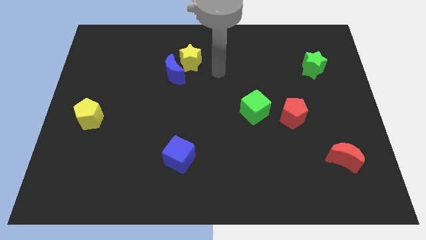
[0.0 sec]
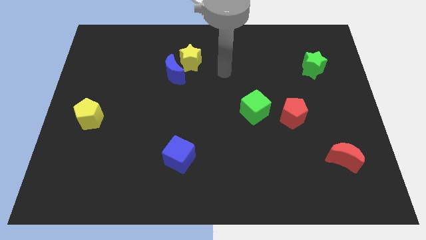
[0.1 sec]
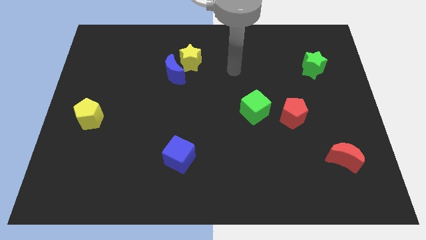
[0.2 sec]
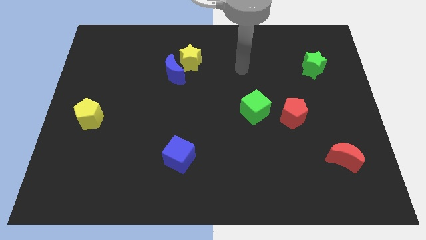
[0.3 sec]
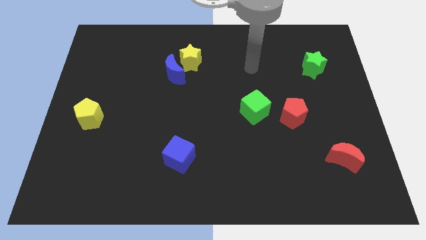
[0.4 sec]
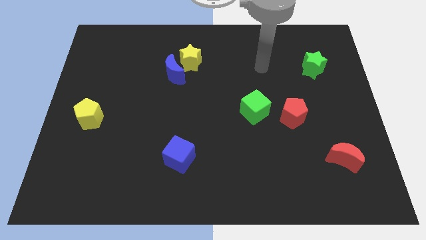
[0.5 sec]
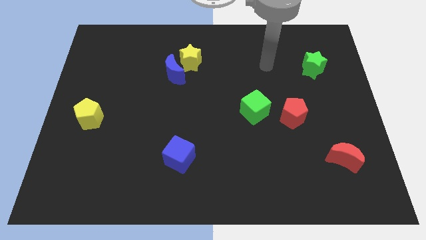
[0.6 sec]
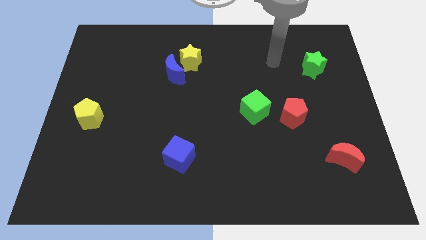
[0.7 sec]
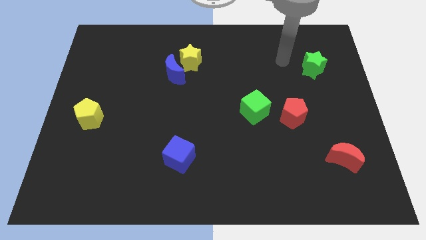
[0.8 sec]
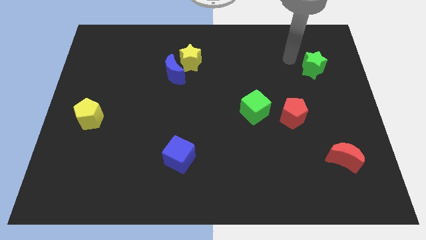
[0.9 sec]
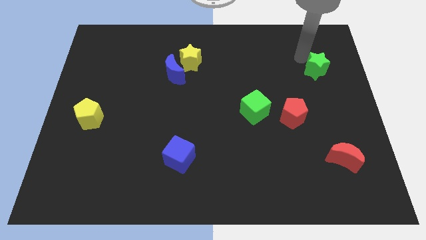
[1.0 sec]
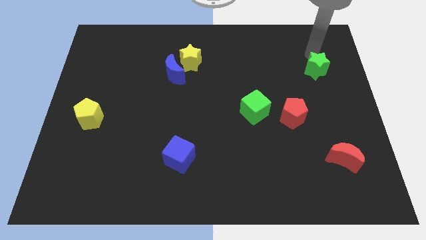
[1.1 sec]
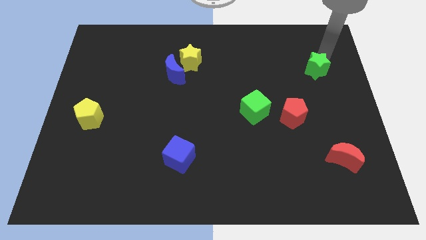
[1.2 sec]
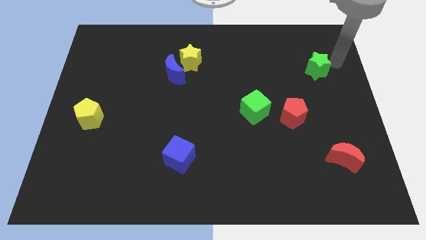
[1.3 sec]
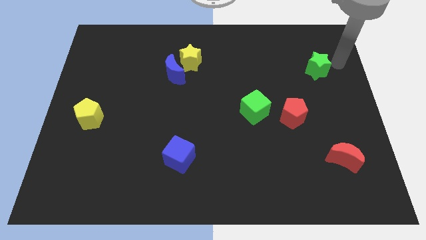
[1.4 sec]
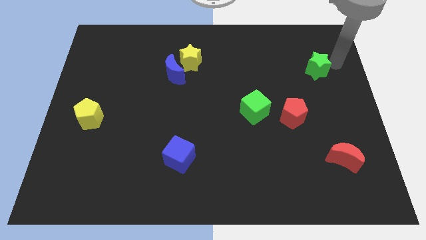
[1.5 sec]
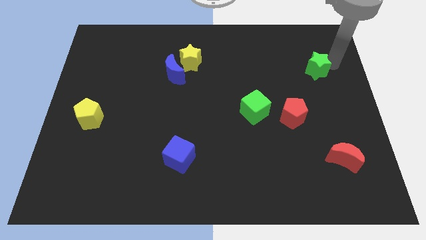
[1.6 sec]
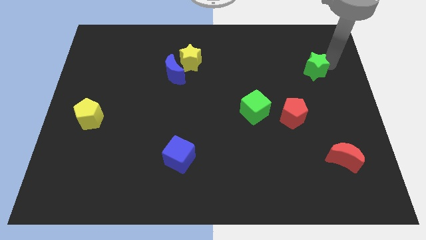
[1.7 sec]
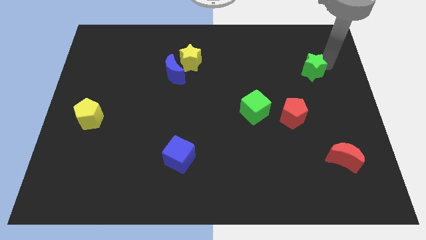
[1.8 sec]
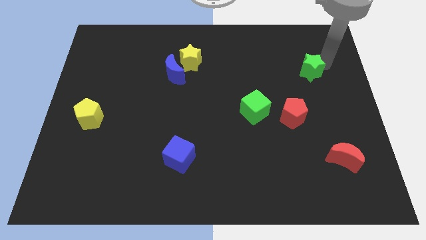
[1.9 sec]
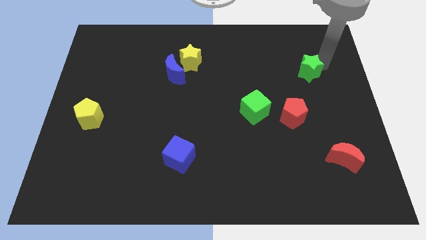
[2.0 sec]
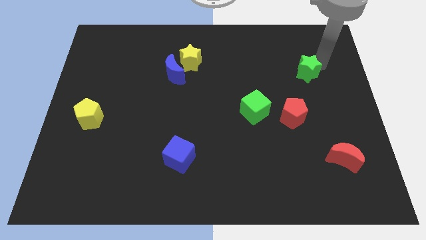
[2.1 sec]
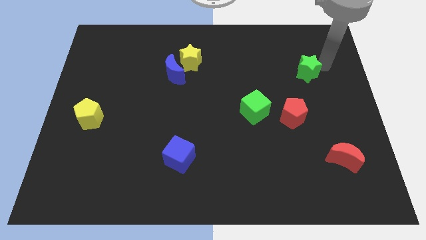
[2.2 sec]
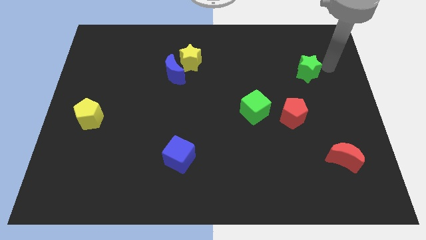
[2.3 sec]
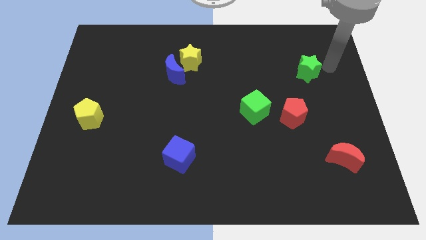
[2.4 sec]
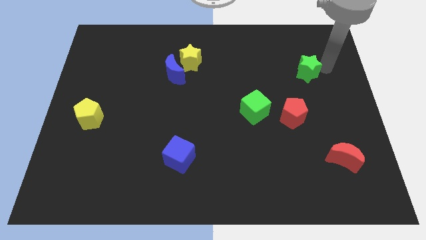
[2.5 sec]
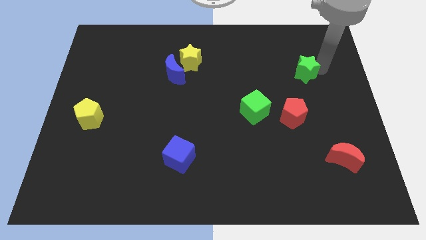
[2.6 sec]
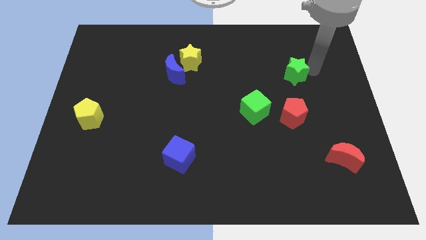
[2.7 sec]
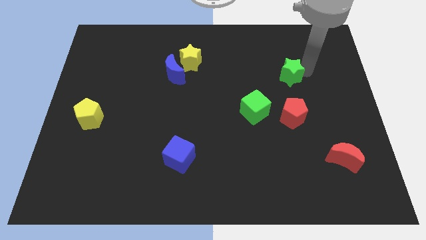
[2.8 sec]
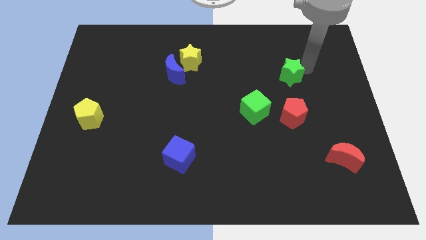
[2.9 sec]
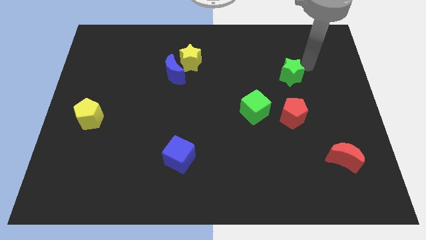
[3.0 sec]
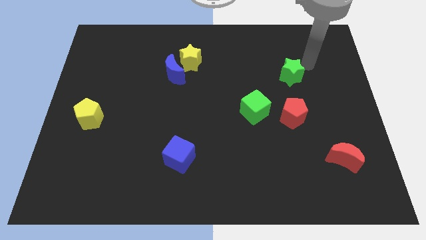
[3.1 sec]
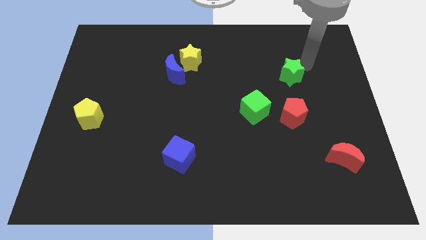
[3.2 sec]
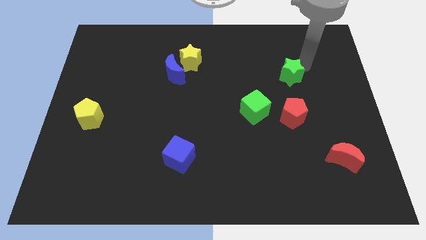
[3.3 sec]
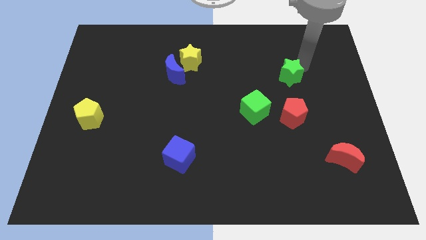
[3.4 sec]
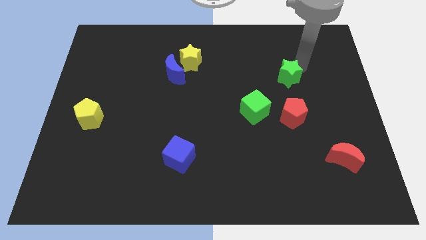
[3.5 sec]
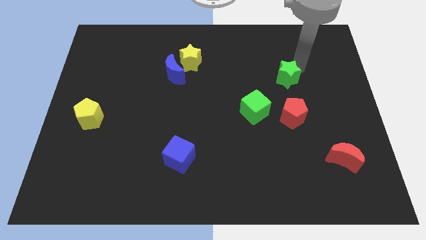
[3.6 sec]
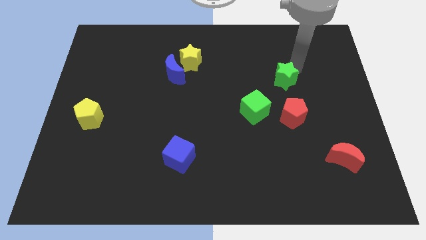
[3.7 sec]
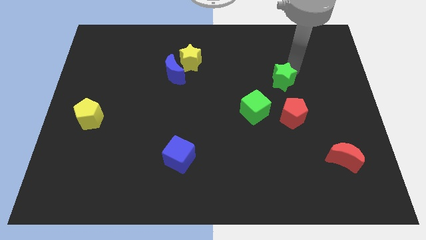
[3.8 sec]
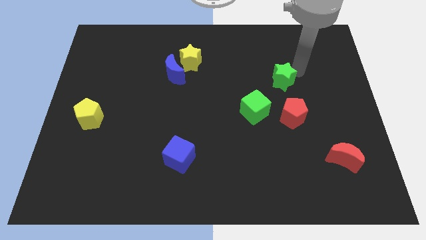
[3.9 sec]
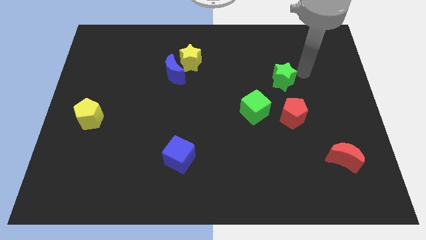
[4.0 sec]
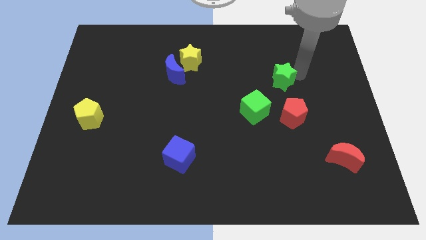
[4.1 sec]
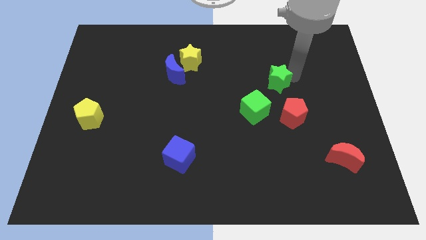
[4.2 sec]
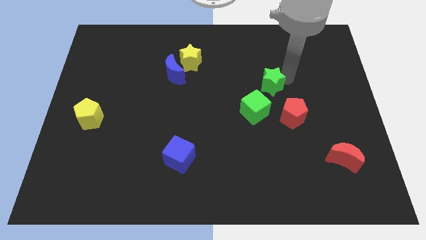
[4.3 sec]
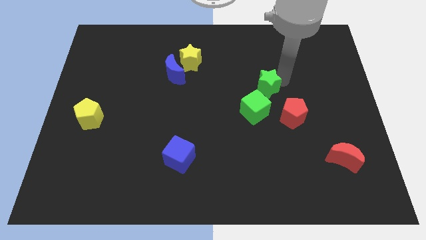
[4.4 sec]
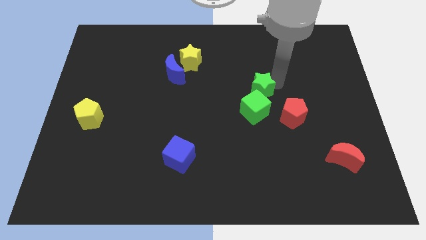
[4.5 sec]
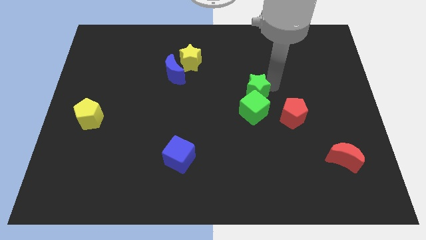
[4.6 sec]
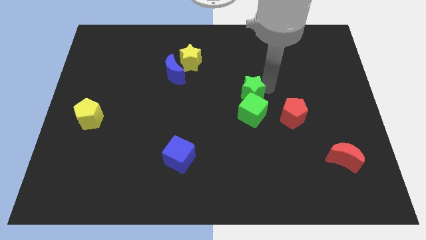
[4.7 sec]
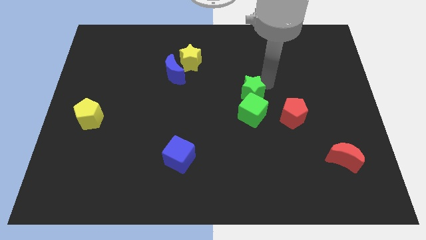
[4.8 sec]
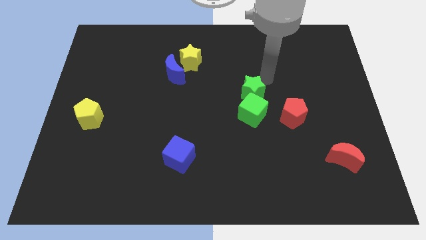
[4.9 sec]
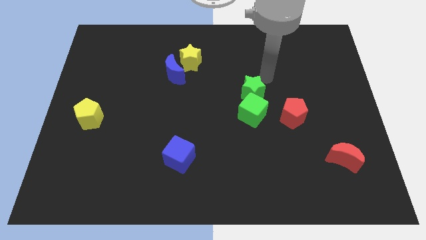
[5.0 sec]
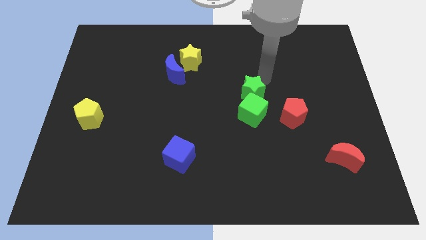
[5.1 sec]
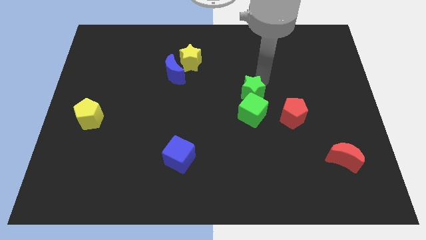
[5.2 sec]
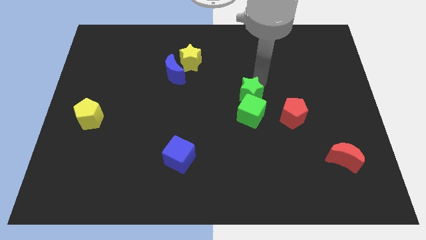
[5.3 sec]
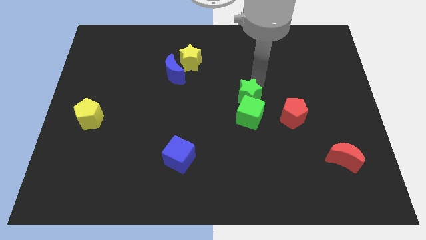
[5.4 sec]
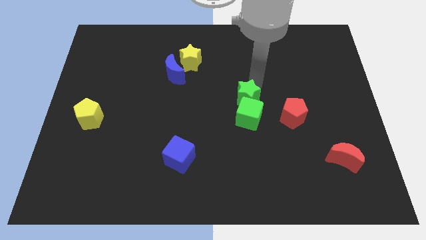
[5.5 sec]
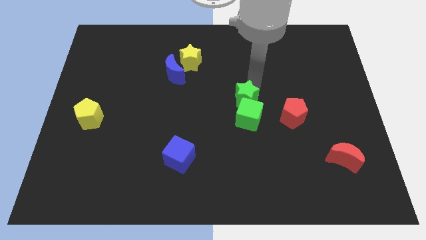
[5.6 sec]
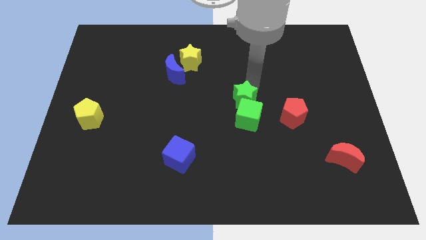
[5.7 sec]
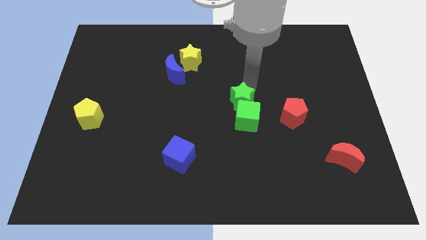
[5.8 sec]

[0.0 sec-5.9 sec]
move the green star down and to the left

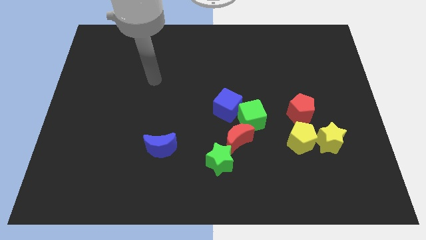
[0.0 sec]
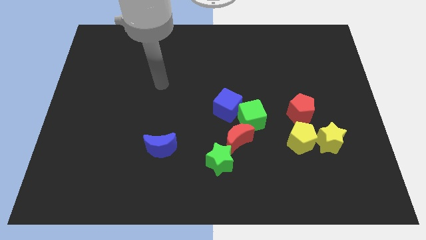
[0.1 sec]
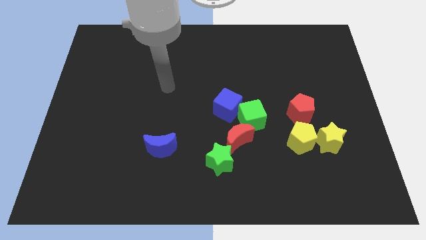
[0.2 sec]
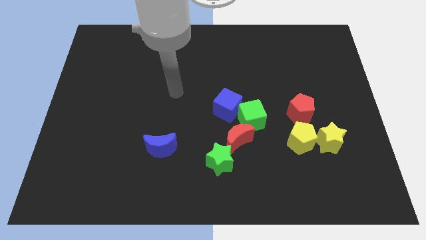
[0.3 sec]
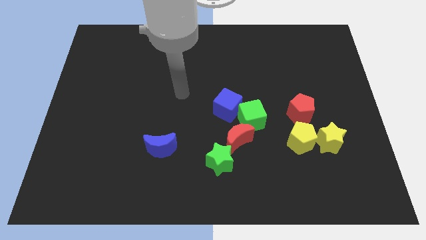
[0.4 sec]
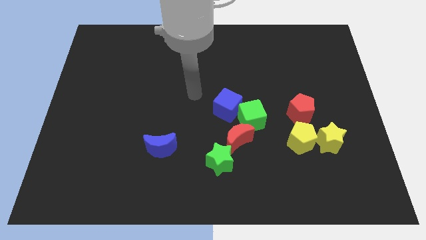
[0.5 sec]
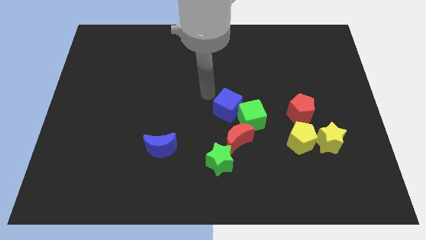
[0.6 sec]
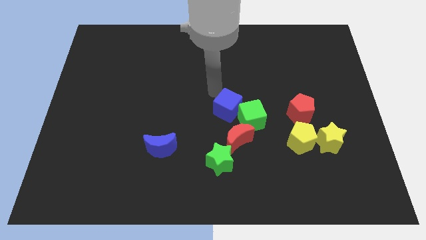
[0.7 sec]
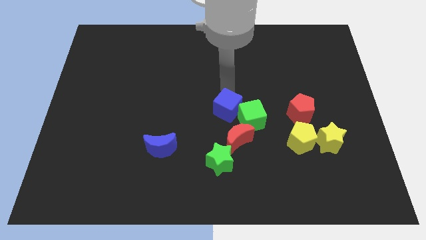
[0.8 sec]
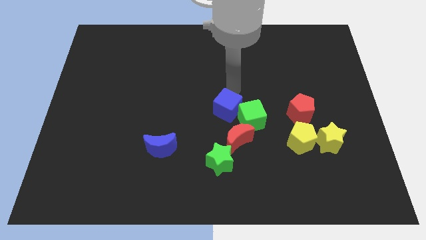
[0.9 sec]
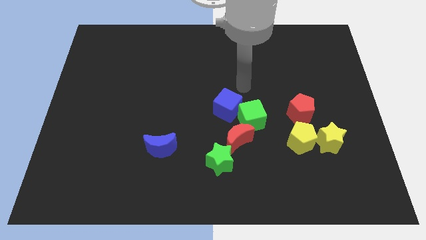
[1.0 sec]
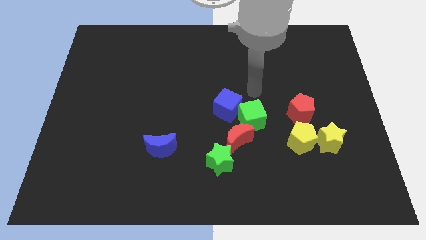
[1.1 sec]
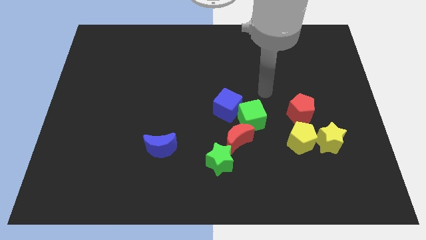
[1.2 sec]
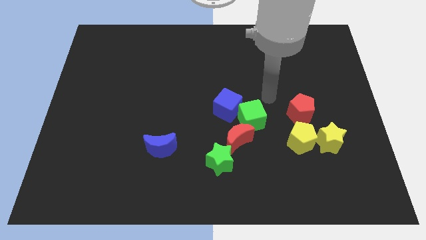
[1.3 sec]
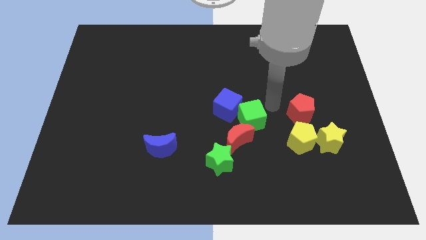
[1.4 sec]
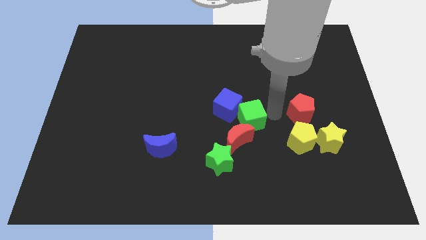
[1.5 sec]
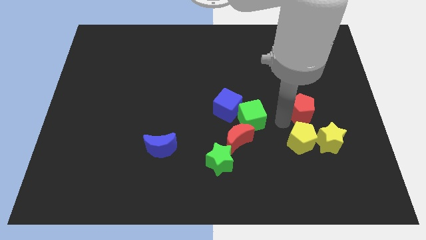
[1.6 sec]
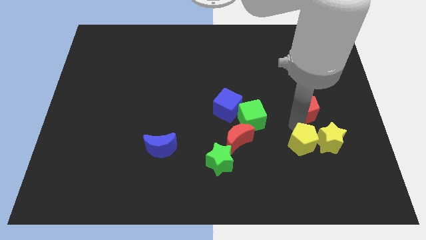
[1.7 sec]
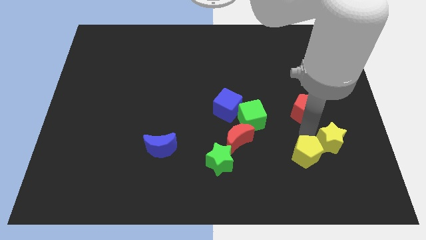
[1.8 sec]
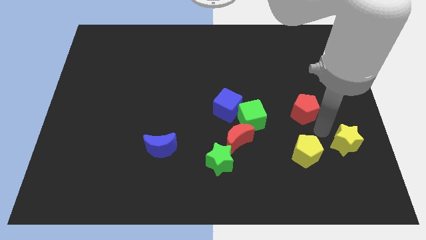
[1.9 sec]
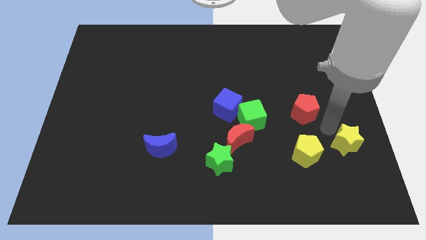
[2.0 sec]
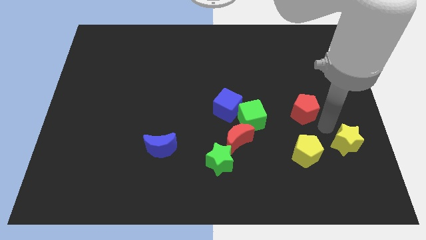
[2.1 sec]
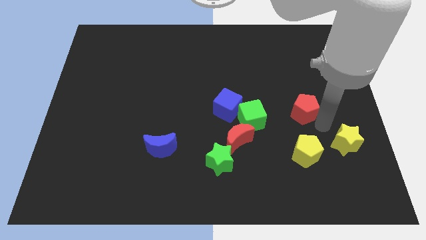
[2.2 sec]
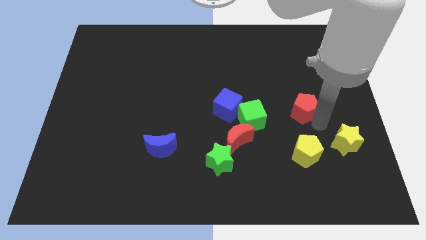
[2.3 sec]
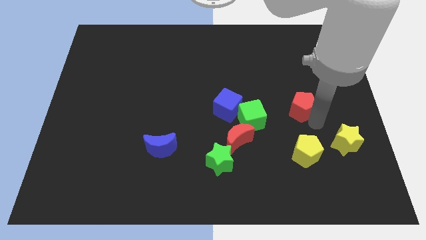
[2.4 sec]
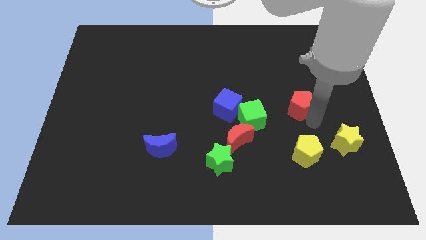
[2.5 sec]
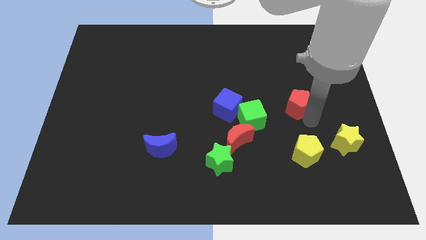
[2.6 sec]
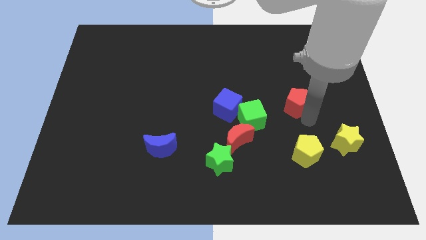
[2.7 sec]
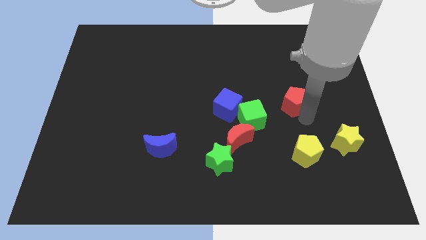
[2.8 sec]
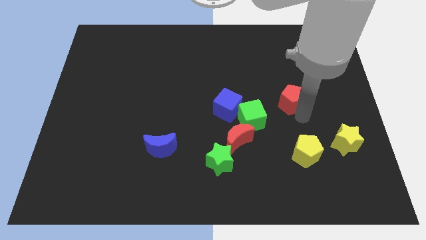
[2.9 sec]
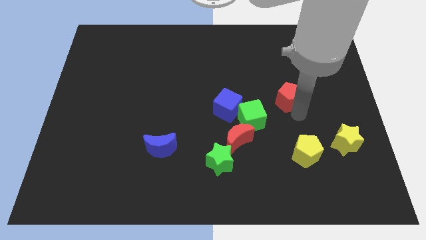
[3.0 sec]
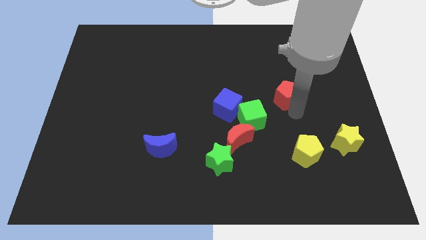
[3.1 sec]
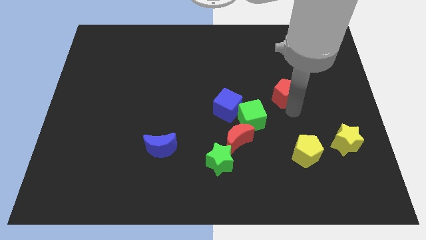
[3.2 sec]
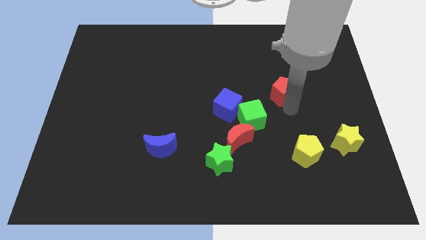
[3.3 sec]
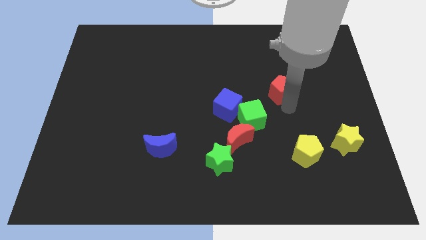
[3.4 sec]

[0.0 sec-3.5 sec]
push the red pentagon up and then left somewhat
